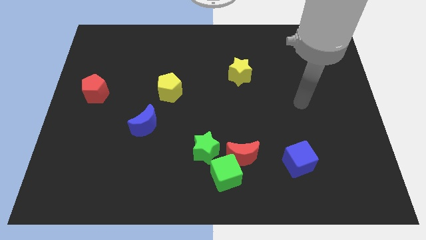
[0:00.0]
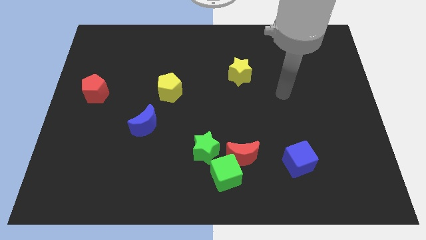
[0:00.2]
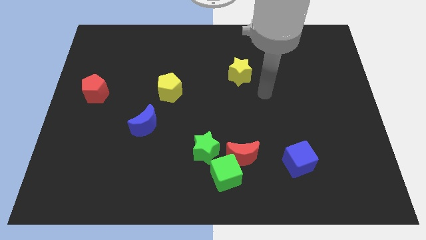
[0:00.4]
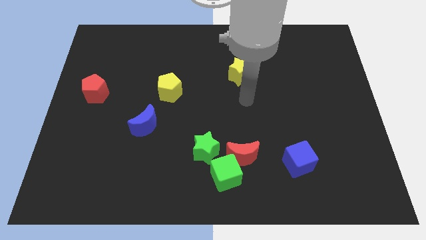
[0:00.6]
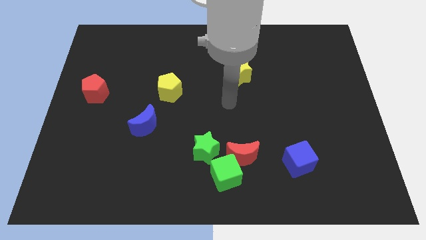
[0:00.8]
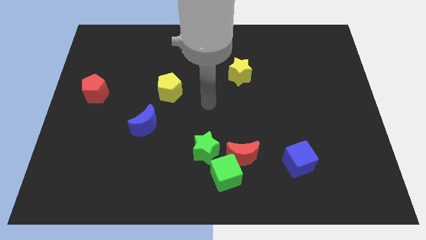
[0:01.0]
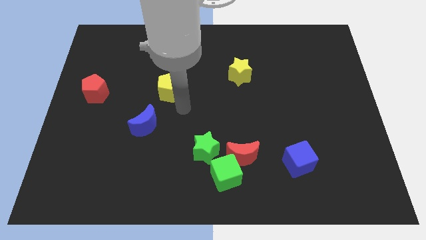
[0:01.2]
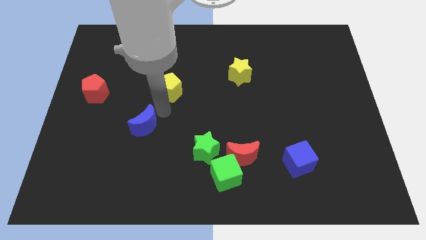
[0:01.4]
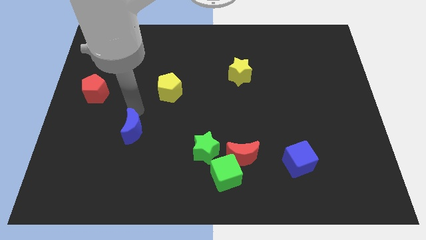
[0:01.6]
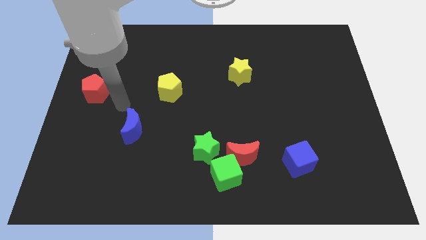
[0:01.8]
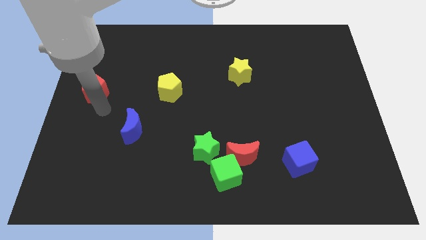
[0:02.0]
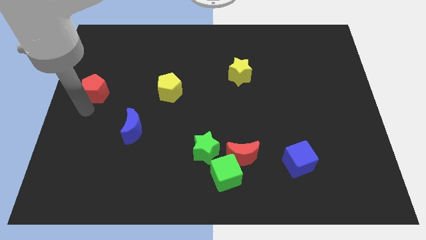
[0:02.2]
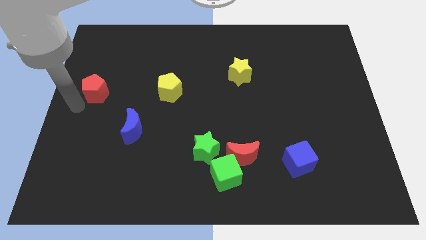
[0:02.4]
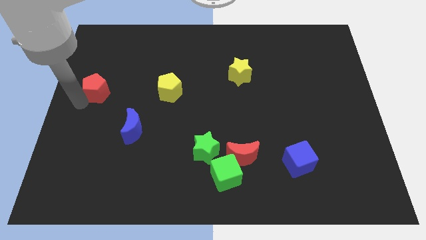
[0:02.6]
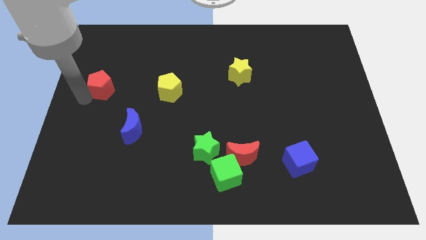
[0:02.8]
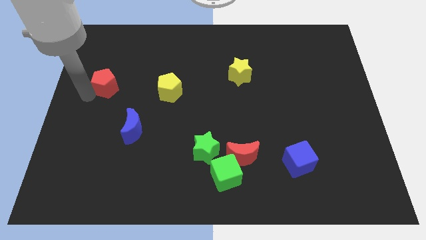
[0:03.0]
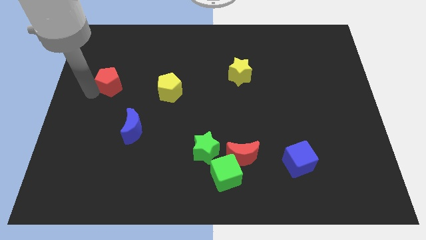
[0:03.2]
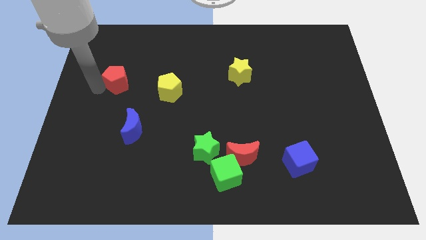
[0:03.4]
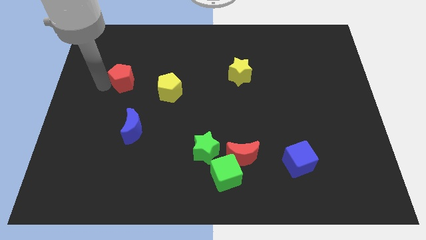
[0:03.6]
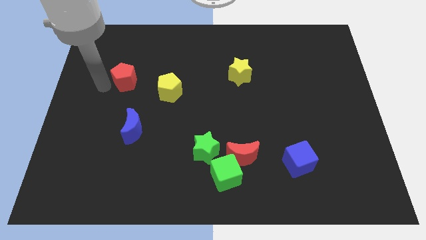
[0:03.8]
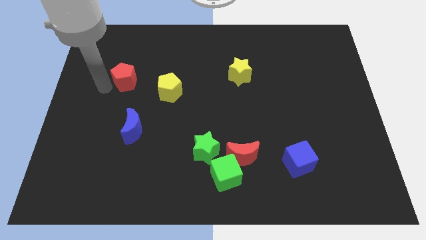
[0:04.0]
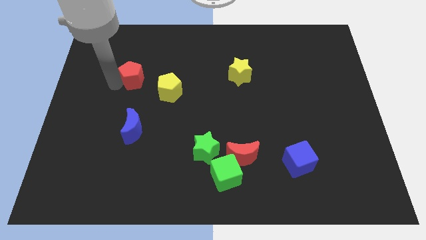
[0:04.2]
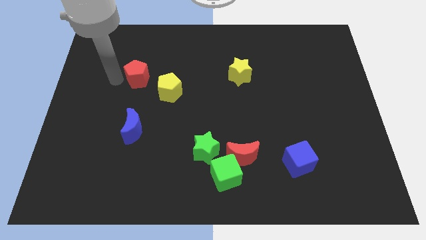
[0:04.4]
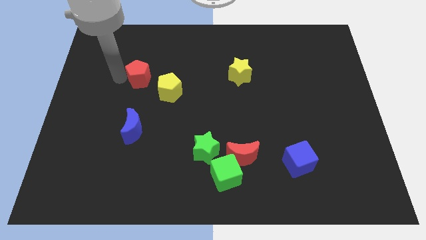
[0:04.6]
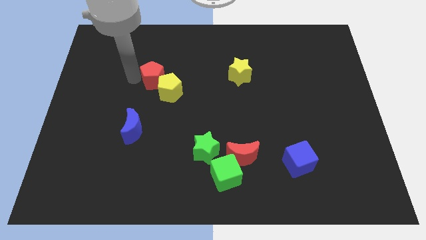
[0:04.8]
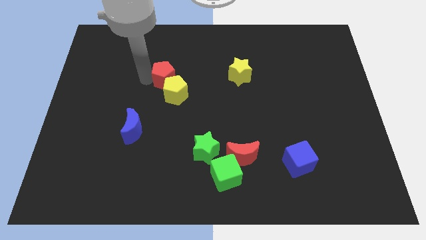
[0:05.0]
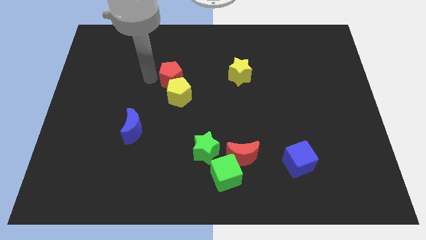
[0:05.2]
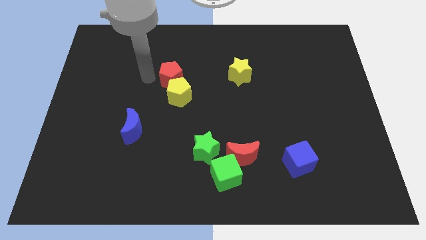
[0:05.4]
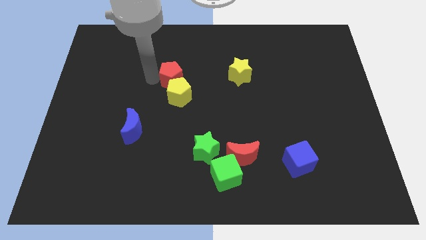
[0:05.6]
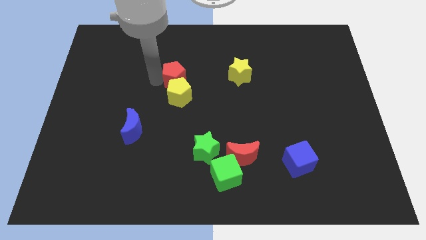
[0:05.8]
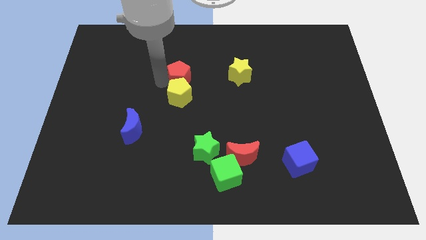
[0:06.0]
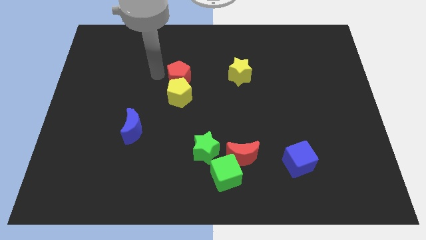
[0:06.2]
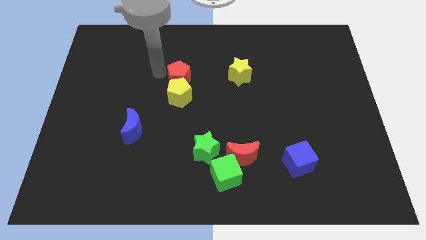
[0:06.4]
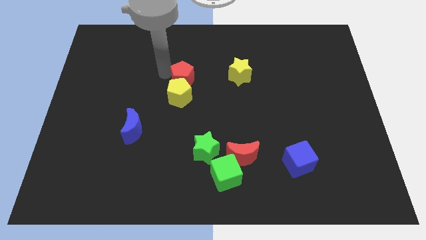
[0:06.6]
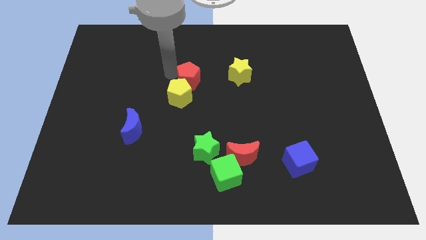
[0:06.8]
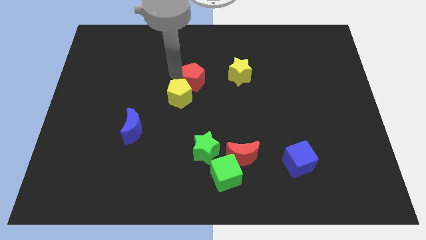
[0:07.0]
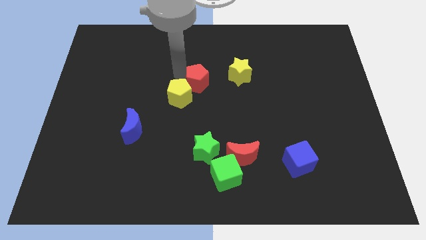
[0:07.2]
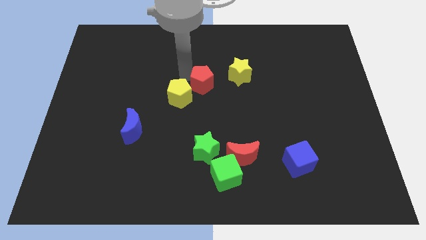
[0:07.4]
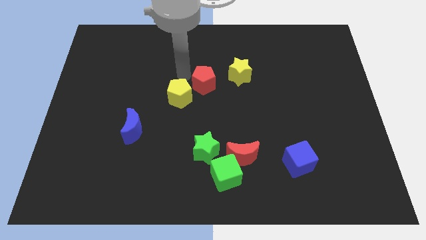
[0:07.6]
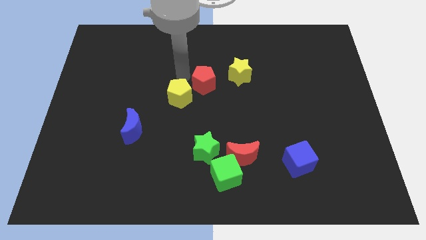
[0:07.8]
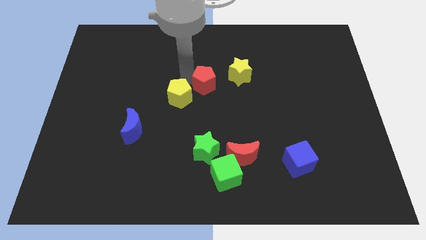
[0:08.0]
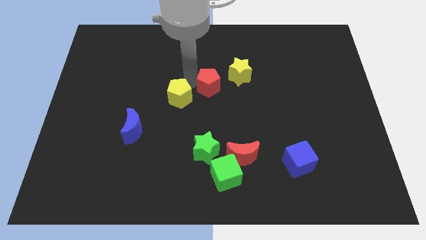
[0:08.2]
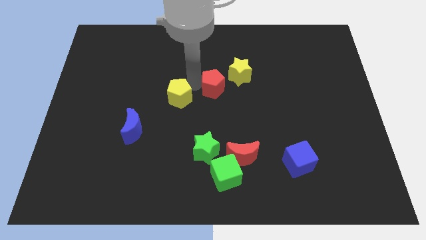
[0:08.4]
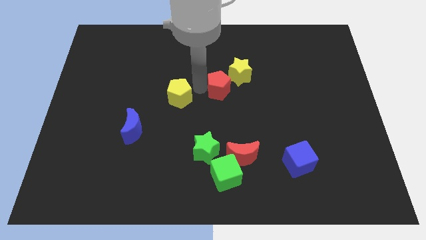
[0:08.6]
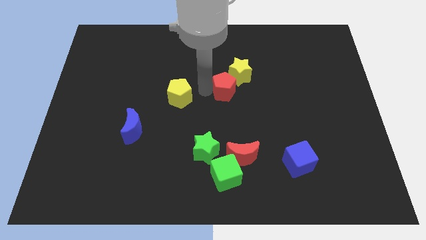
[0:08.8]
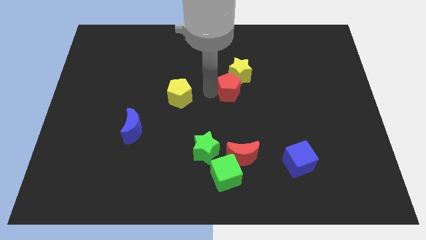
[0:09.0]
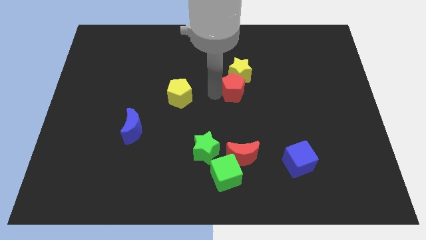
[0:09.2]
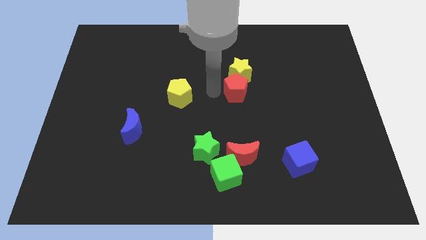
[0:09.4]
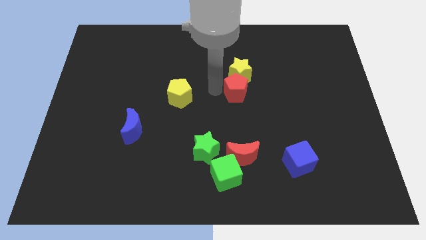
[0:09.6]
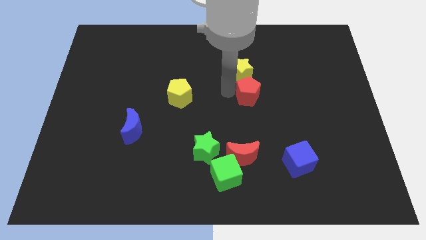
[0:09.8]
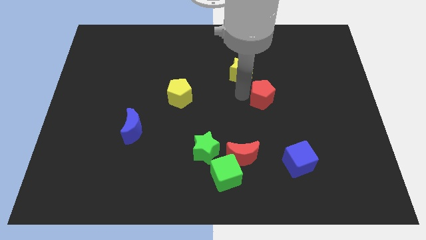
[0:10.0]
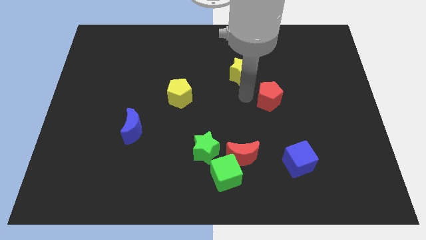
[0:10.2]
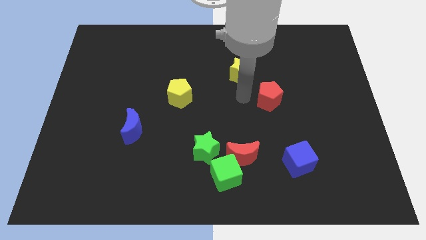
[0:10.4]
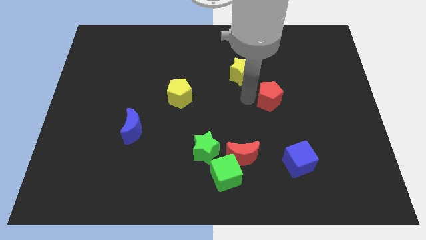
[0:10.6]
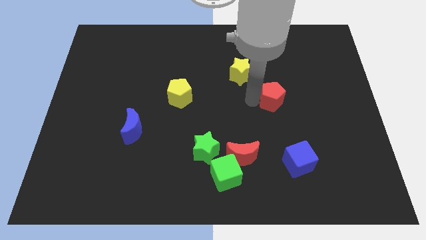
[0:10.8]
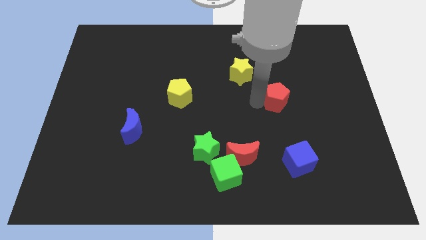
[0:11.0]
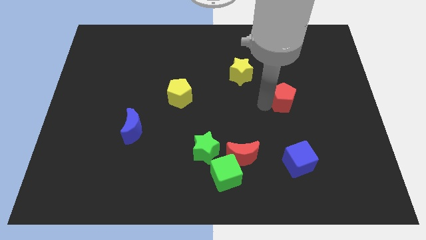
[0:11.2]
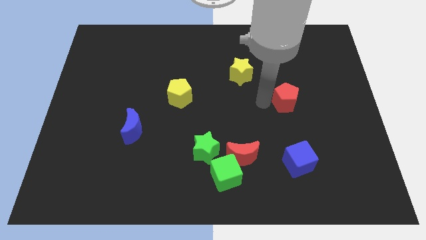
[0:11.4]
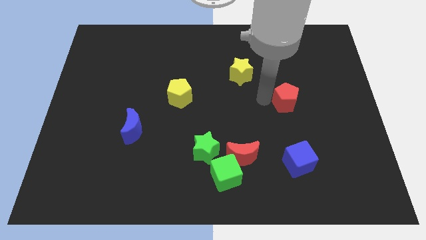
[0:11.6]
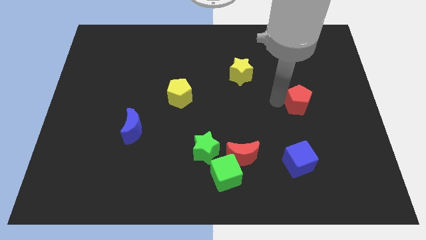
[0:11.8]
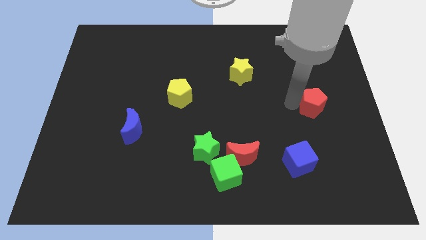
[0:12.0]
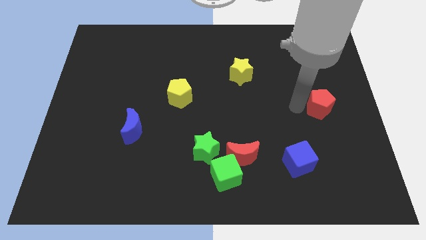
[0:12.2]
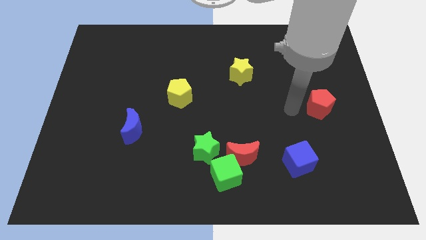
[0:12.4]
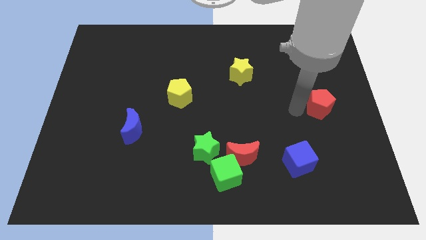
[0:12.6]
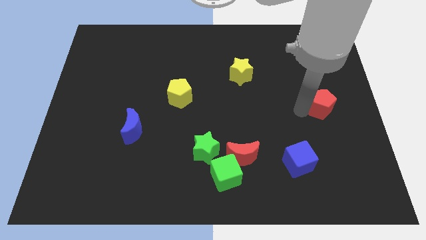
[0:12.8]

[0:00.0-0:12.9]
push the red pentagon to the center right

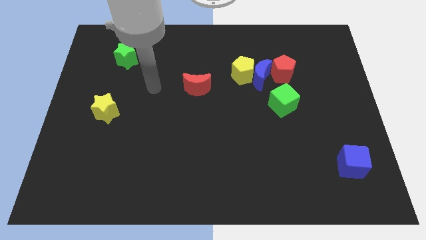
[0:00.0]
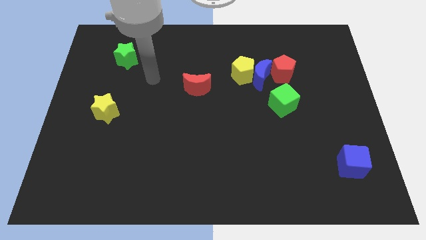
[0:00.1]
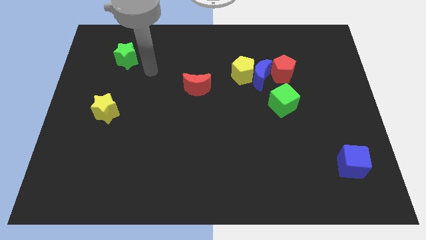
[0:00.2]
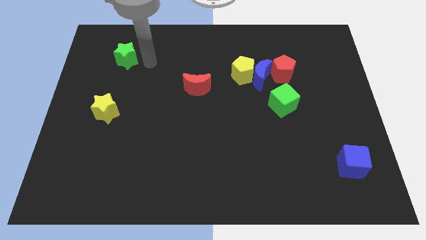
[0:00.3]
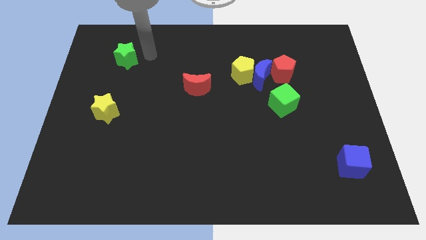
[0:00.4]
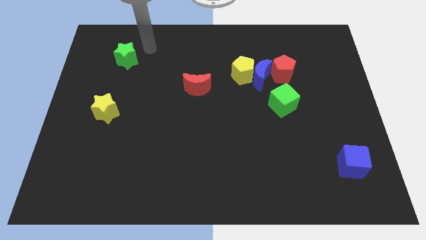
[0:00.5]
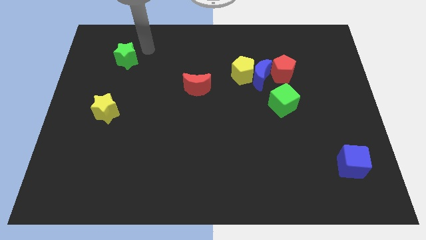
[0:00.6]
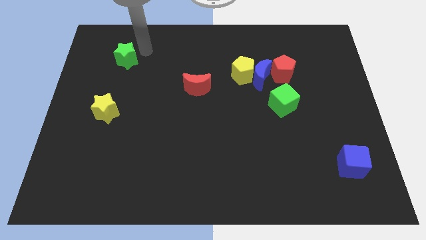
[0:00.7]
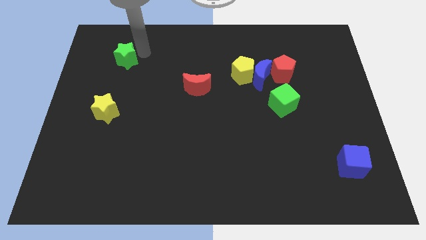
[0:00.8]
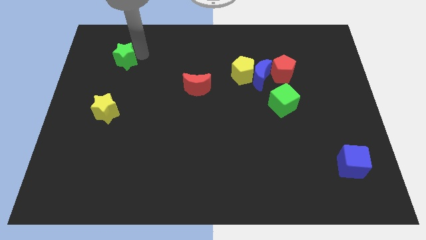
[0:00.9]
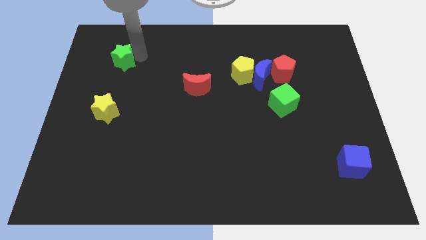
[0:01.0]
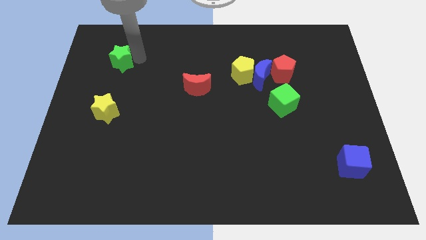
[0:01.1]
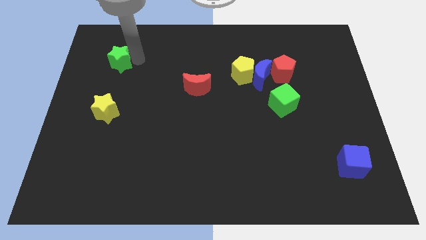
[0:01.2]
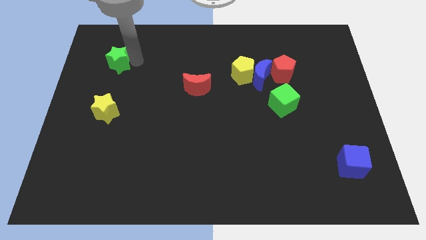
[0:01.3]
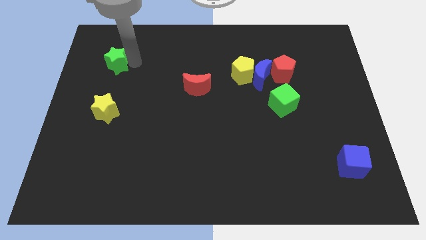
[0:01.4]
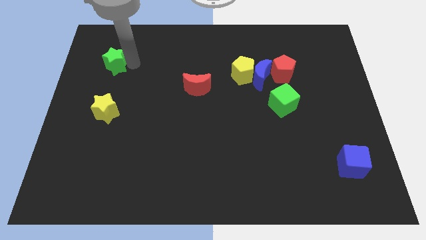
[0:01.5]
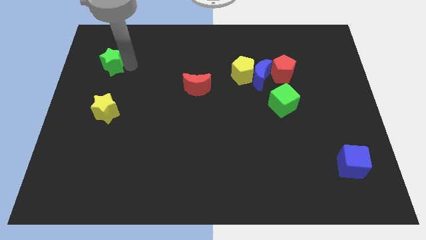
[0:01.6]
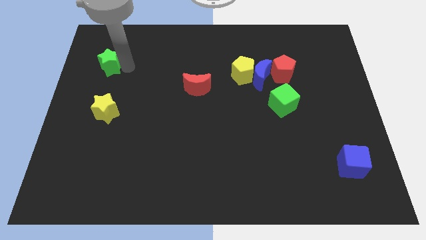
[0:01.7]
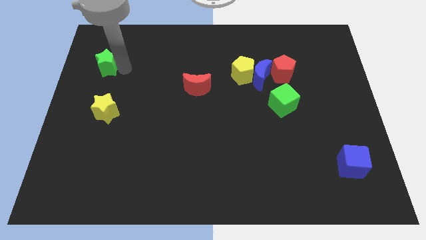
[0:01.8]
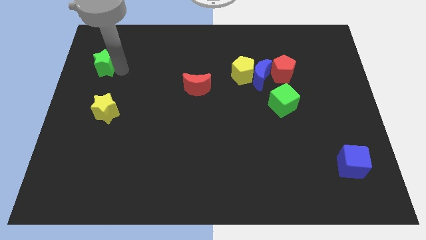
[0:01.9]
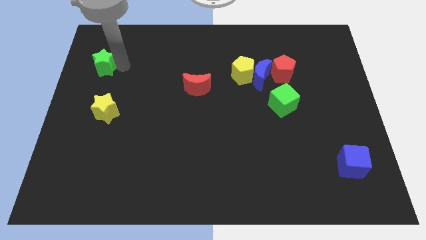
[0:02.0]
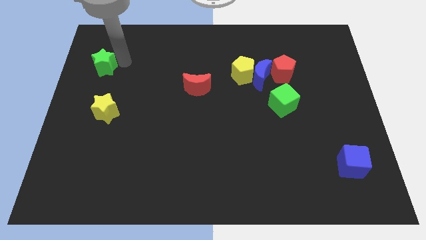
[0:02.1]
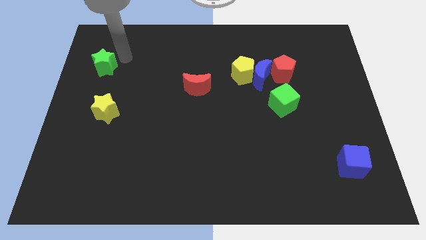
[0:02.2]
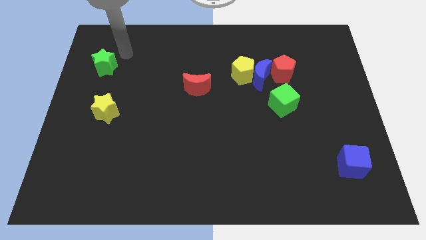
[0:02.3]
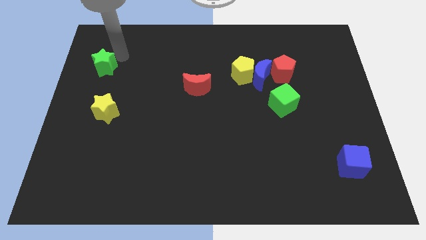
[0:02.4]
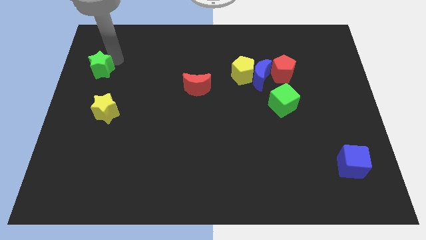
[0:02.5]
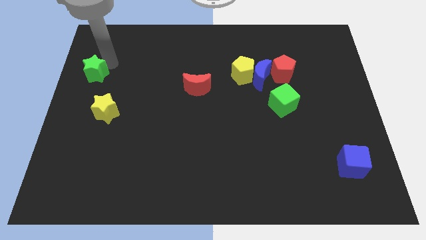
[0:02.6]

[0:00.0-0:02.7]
put the green star to the left side
